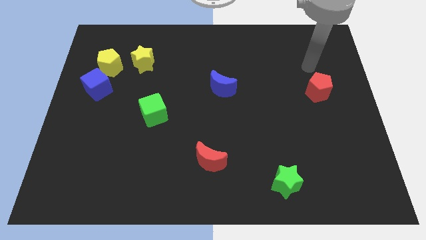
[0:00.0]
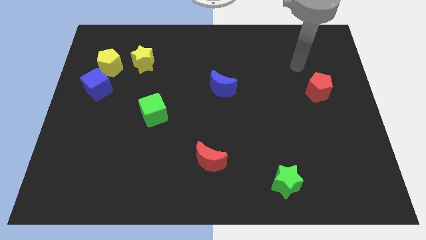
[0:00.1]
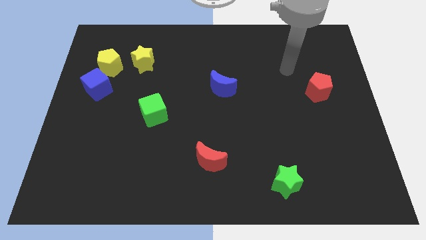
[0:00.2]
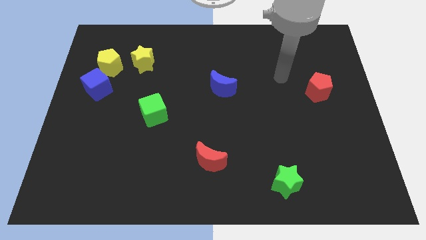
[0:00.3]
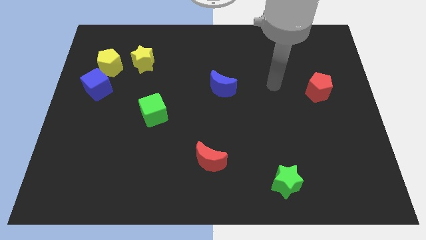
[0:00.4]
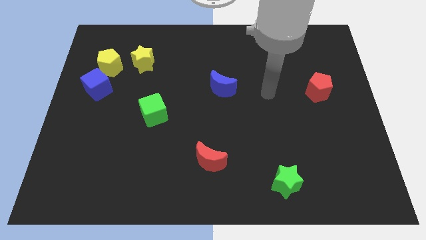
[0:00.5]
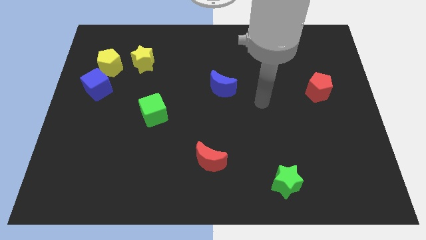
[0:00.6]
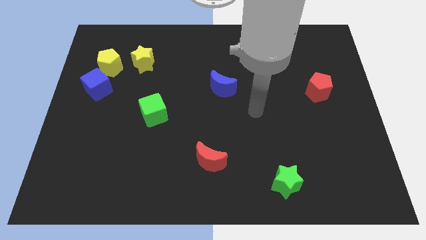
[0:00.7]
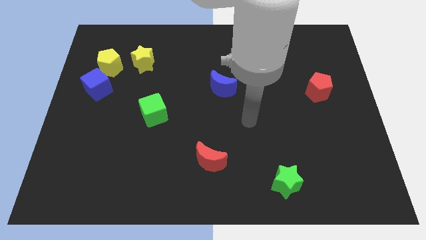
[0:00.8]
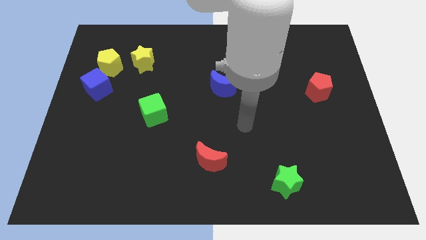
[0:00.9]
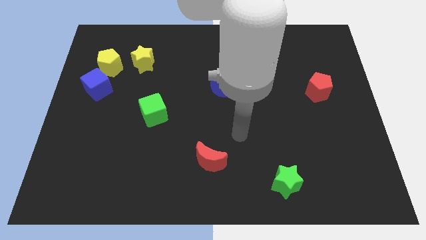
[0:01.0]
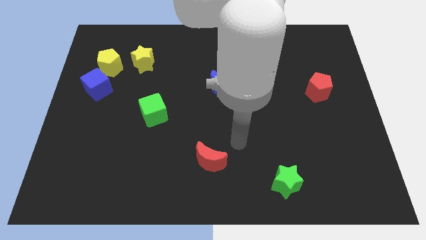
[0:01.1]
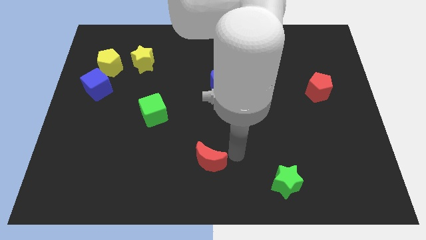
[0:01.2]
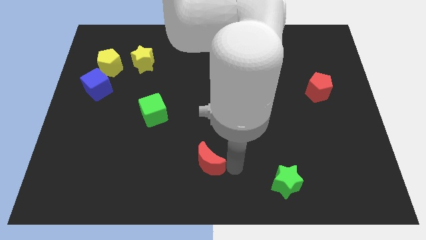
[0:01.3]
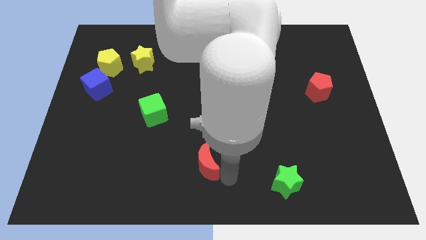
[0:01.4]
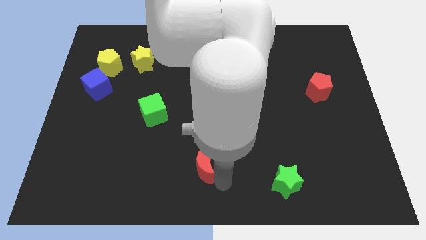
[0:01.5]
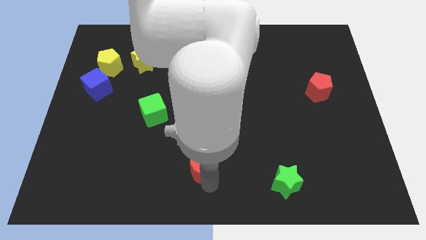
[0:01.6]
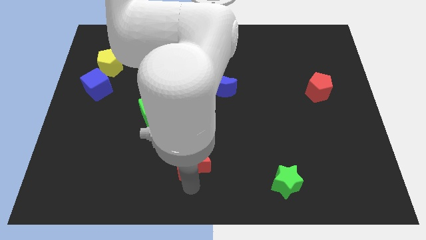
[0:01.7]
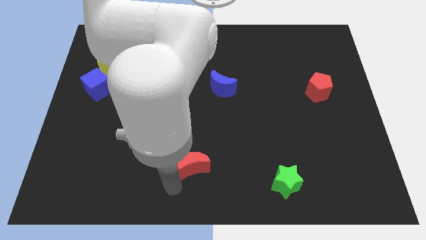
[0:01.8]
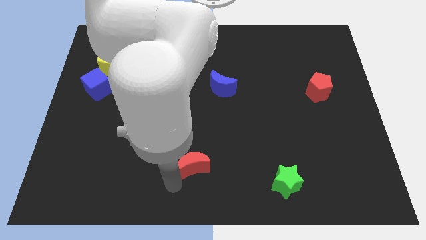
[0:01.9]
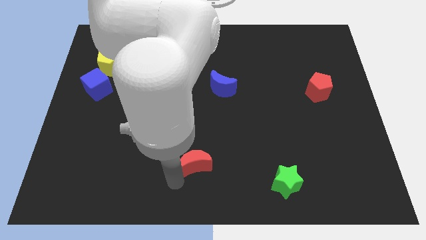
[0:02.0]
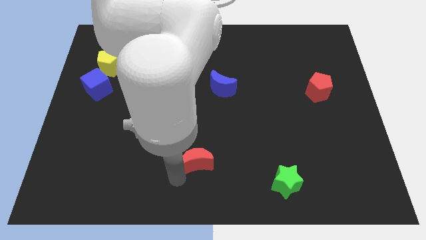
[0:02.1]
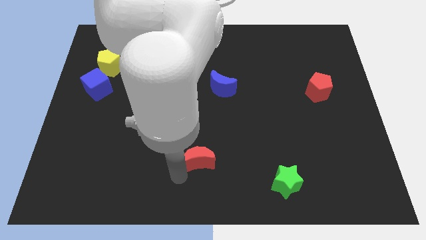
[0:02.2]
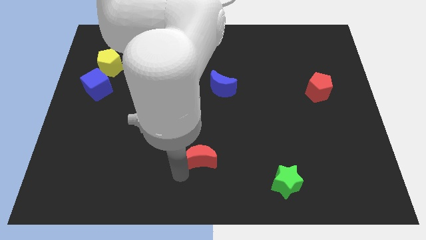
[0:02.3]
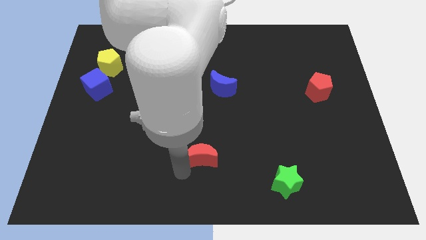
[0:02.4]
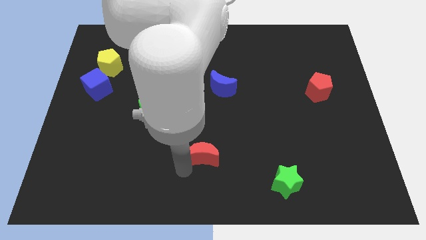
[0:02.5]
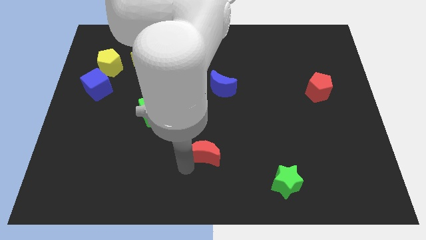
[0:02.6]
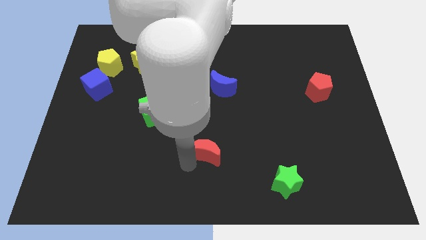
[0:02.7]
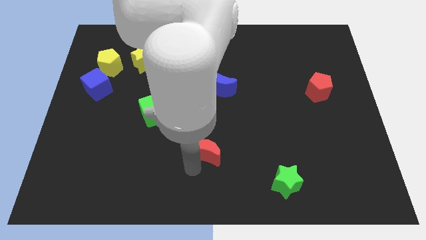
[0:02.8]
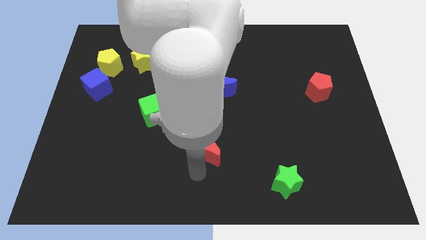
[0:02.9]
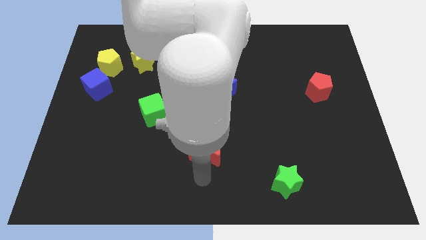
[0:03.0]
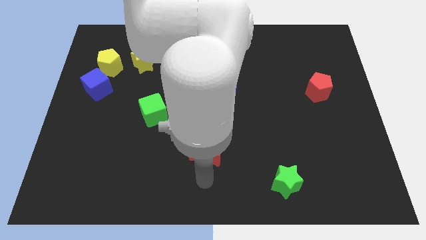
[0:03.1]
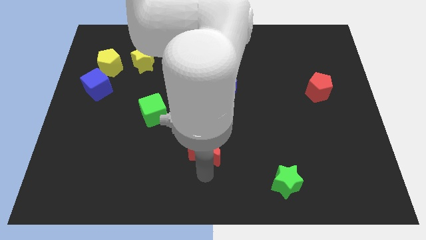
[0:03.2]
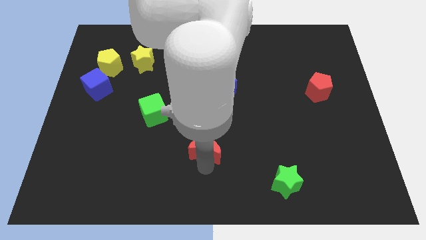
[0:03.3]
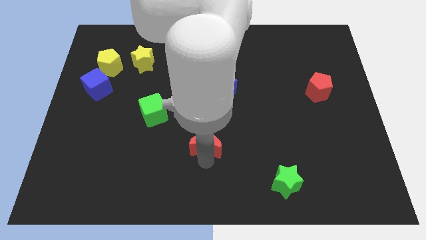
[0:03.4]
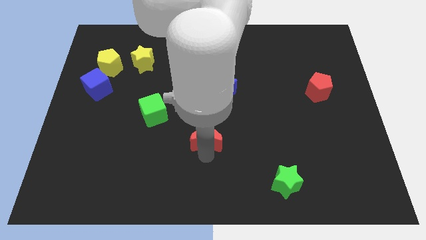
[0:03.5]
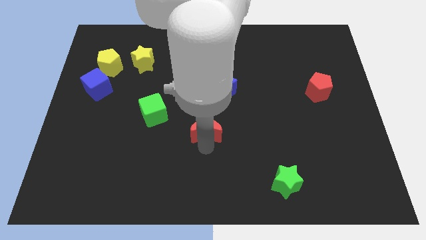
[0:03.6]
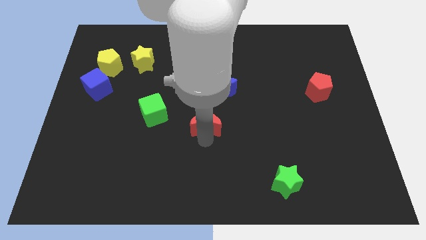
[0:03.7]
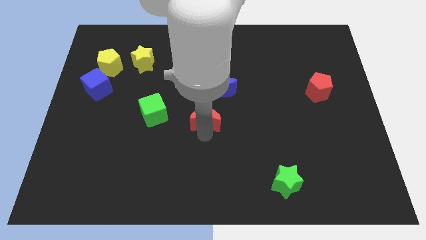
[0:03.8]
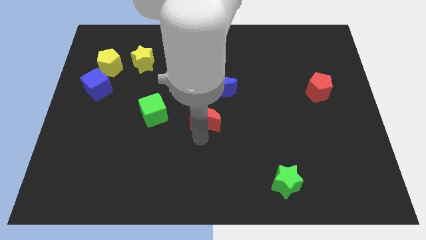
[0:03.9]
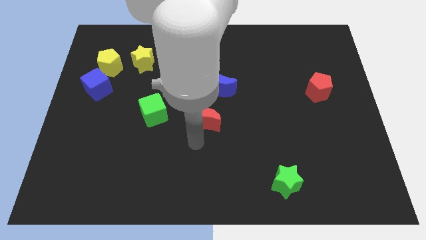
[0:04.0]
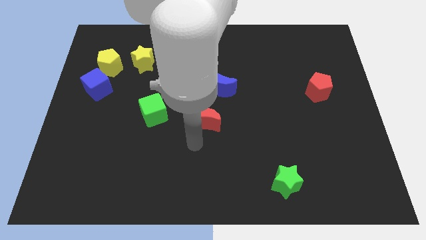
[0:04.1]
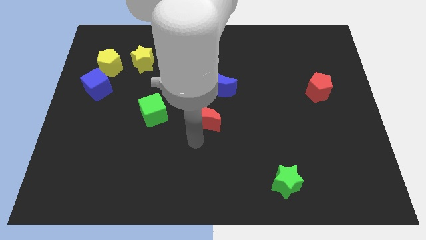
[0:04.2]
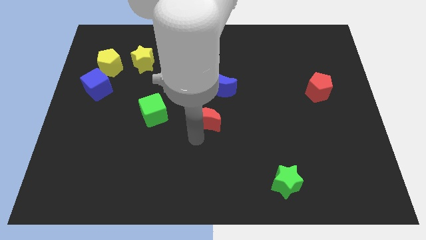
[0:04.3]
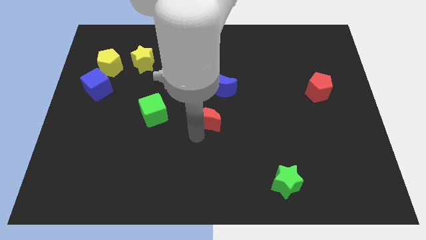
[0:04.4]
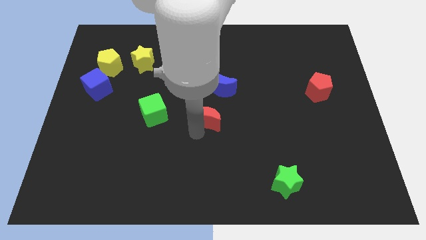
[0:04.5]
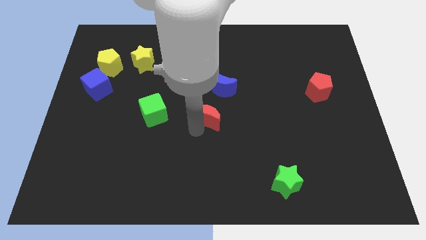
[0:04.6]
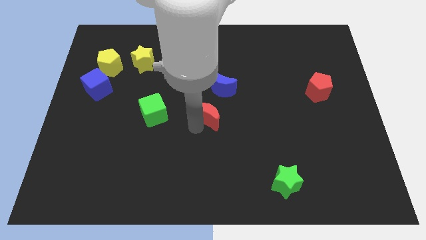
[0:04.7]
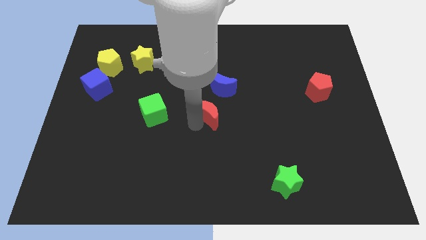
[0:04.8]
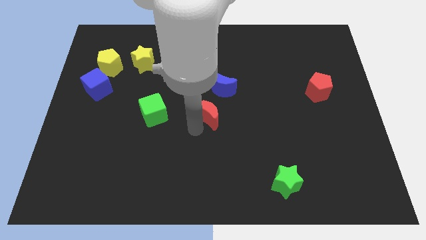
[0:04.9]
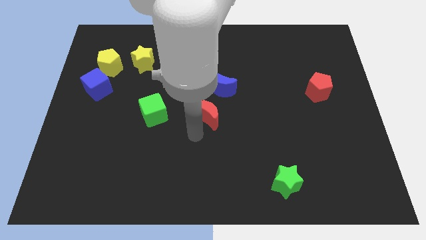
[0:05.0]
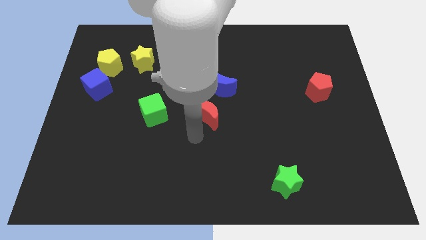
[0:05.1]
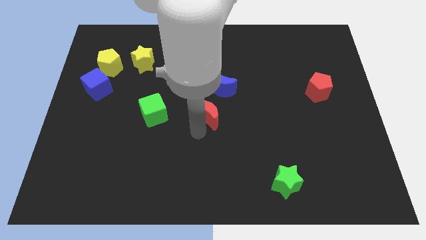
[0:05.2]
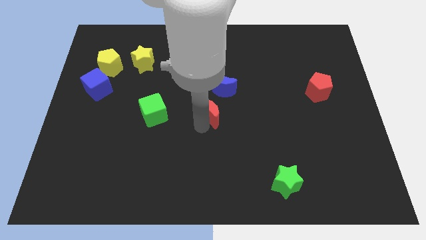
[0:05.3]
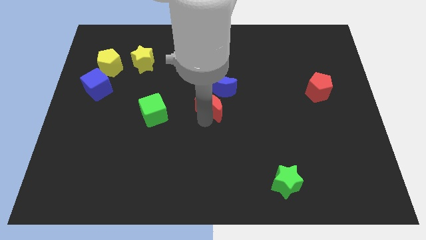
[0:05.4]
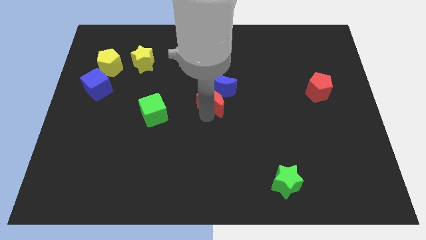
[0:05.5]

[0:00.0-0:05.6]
put the red moon next to the blue moon

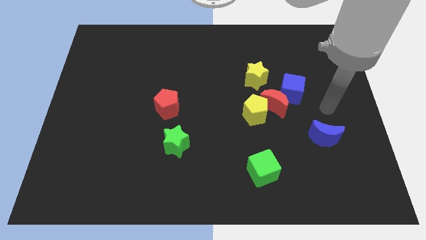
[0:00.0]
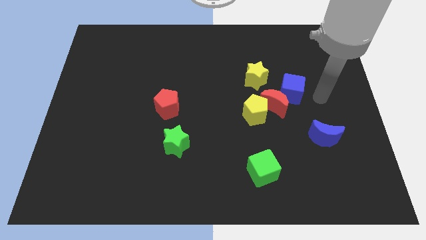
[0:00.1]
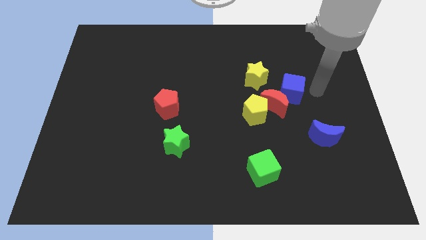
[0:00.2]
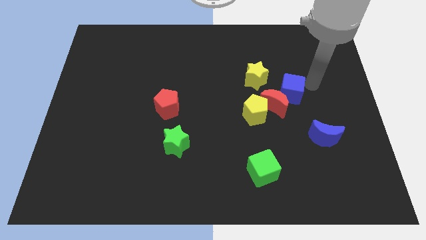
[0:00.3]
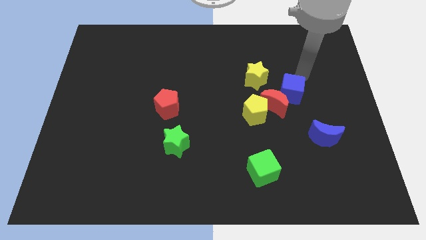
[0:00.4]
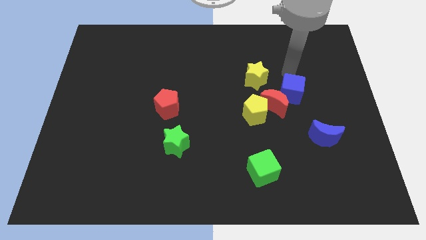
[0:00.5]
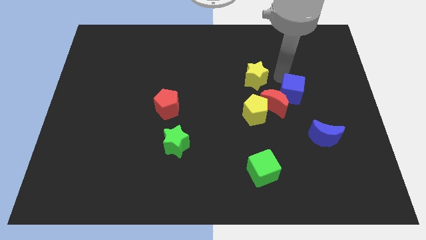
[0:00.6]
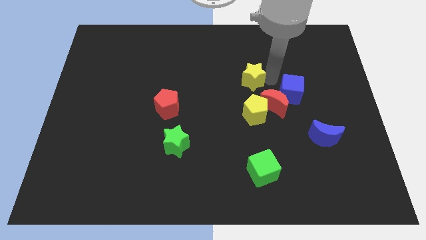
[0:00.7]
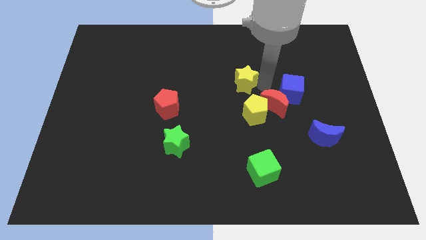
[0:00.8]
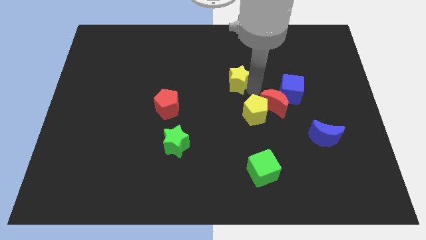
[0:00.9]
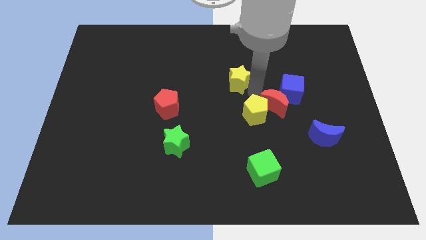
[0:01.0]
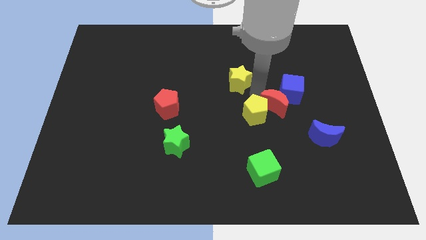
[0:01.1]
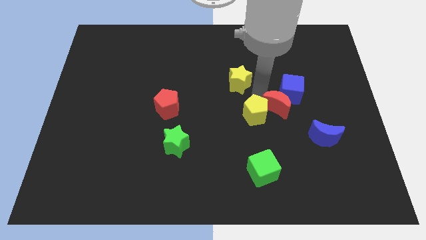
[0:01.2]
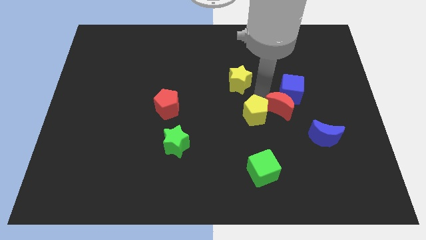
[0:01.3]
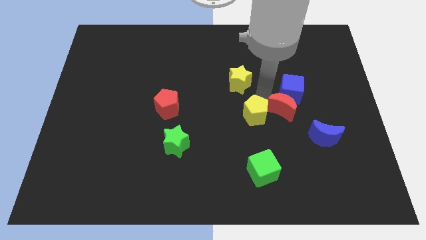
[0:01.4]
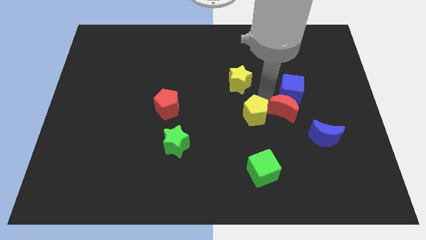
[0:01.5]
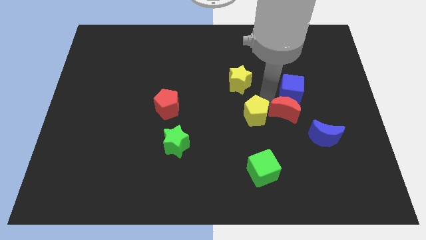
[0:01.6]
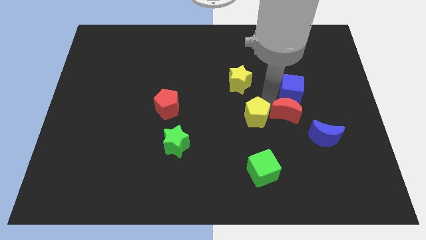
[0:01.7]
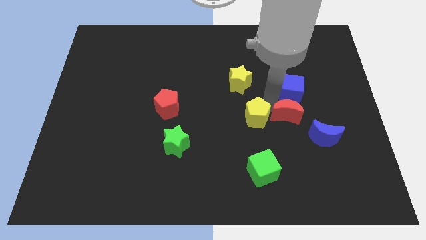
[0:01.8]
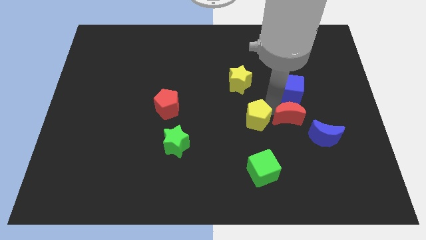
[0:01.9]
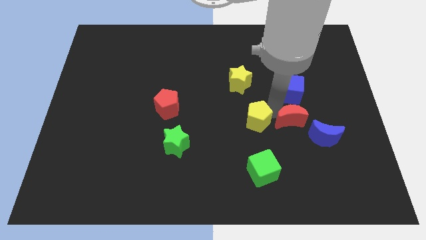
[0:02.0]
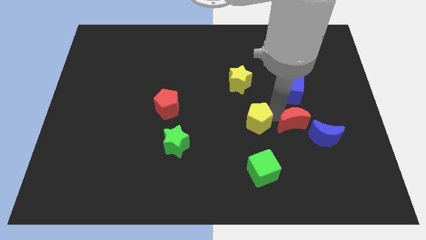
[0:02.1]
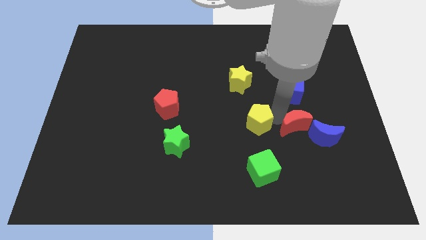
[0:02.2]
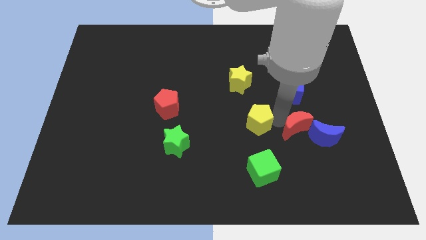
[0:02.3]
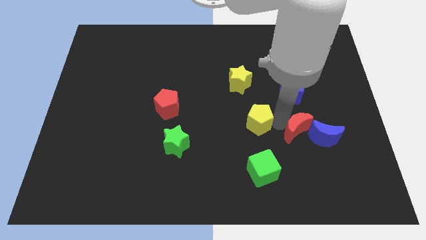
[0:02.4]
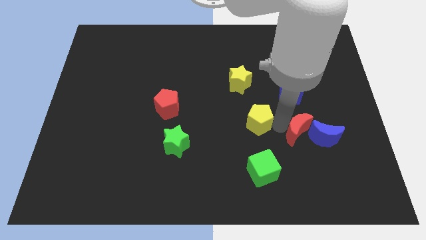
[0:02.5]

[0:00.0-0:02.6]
put the red moon to the blue moon
